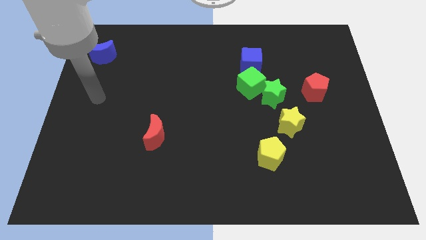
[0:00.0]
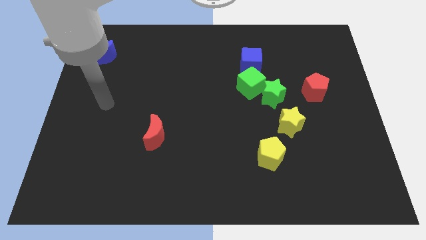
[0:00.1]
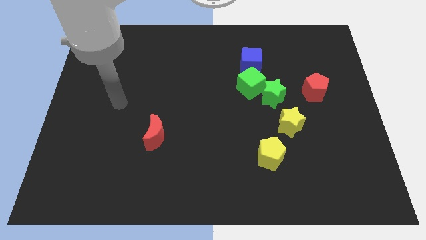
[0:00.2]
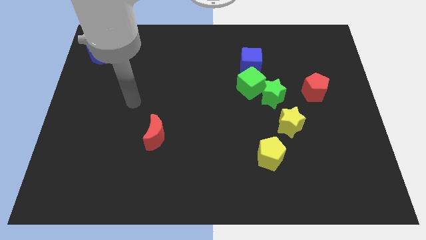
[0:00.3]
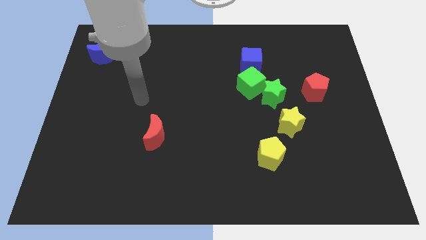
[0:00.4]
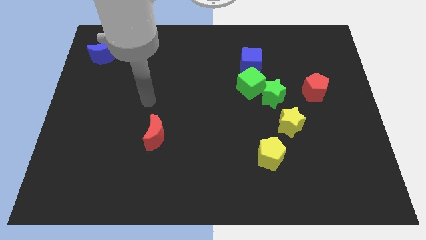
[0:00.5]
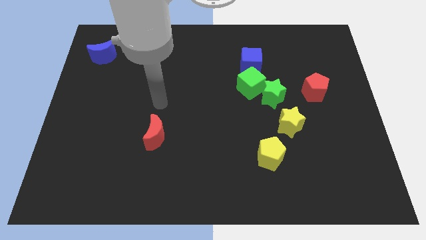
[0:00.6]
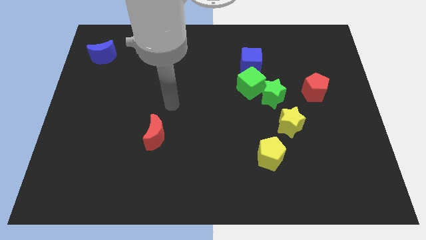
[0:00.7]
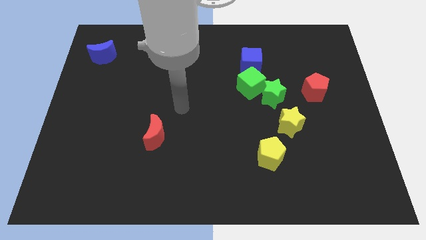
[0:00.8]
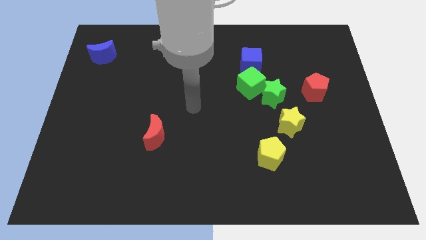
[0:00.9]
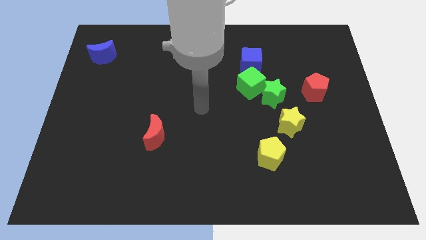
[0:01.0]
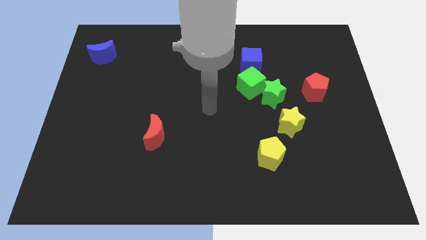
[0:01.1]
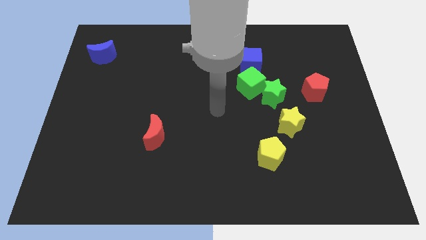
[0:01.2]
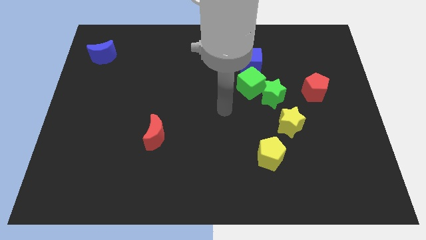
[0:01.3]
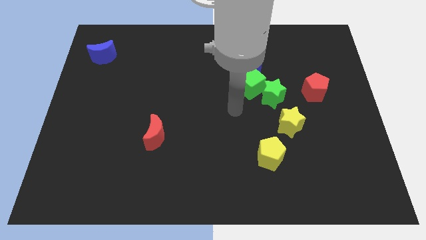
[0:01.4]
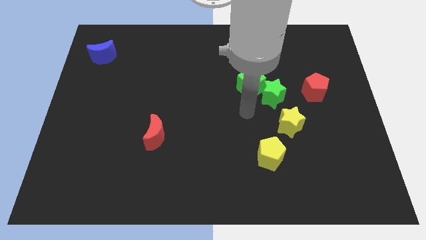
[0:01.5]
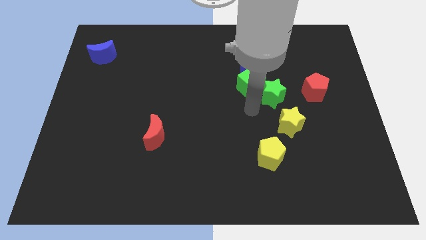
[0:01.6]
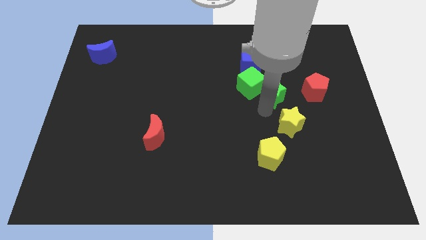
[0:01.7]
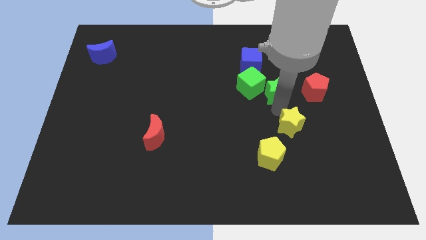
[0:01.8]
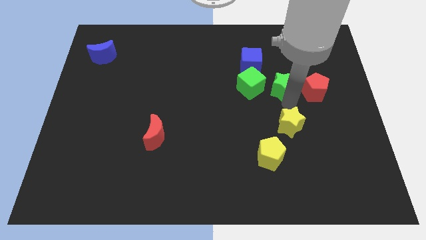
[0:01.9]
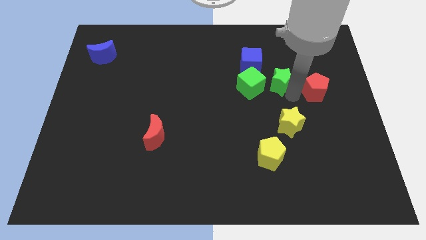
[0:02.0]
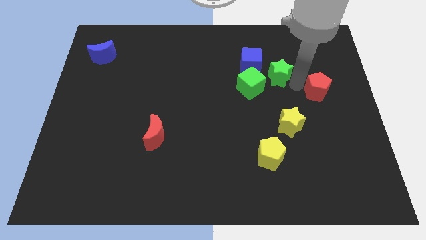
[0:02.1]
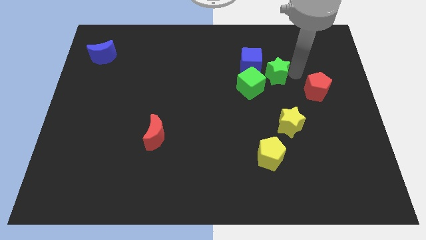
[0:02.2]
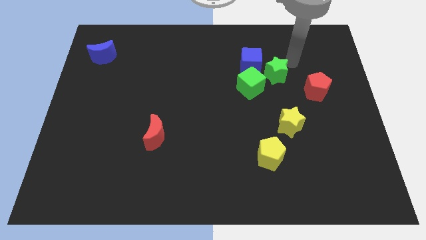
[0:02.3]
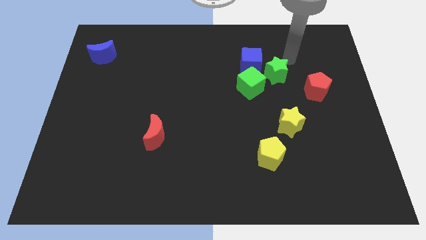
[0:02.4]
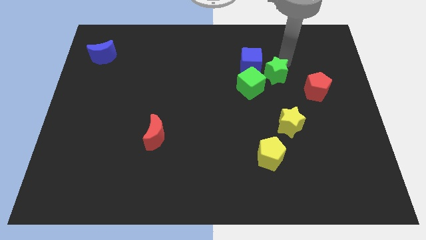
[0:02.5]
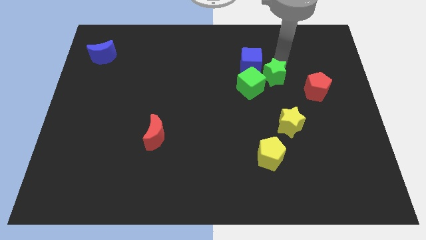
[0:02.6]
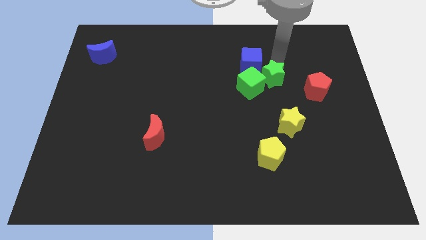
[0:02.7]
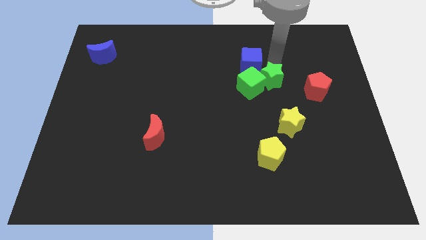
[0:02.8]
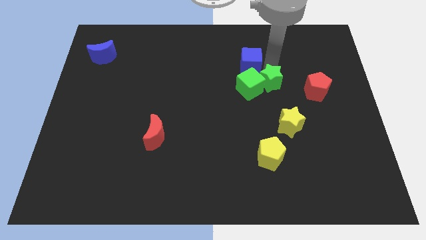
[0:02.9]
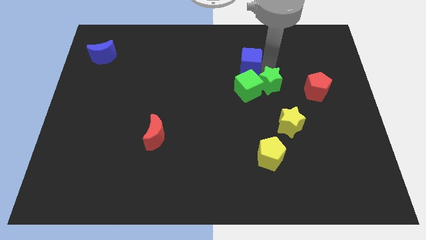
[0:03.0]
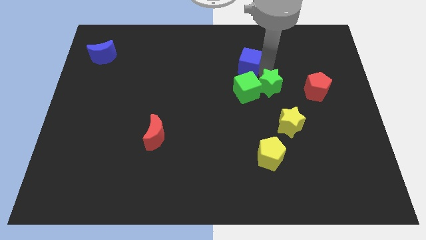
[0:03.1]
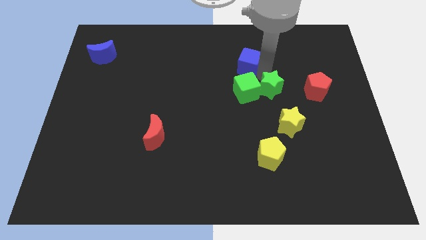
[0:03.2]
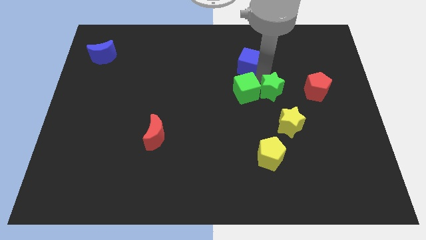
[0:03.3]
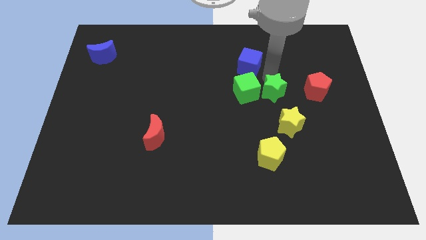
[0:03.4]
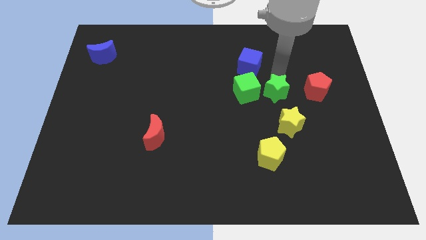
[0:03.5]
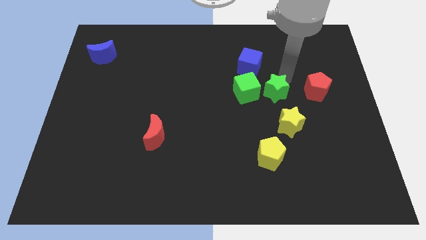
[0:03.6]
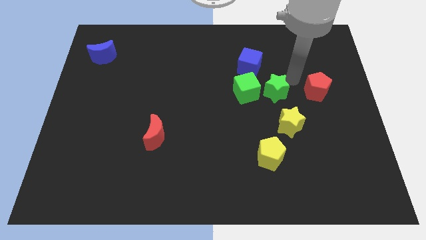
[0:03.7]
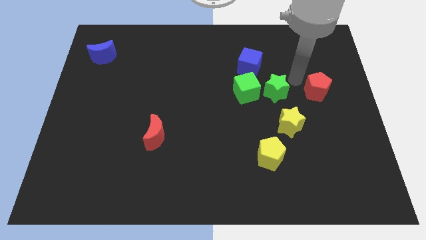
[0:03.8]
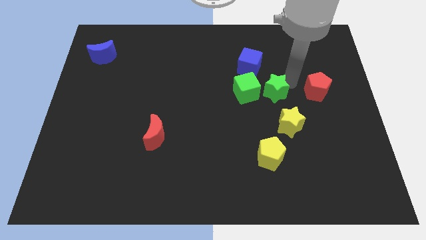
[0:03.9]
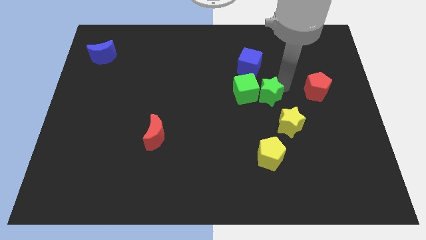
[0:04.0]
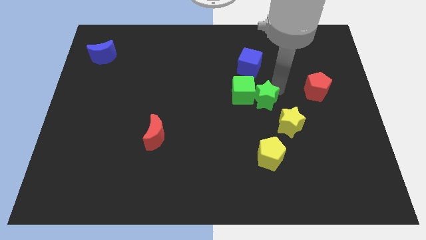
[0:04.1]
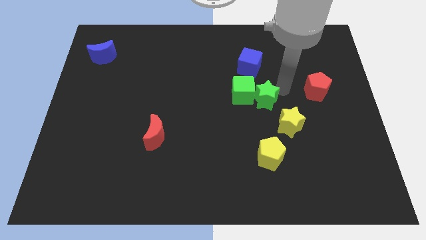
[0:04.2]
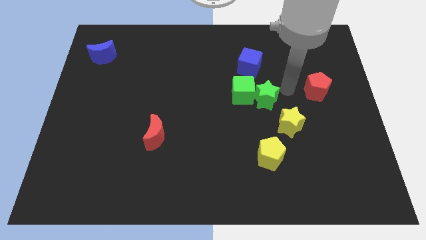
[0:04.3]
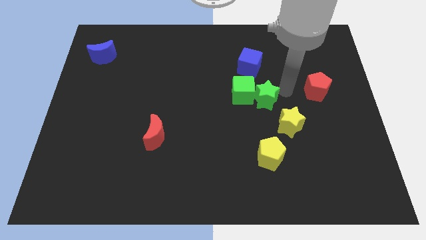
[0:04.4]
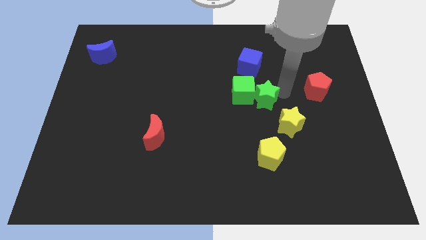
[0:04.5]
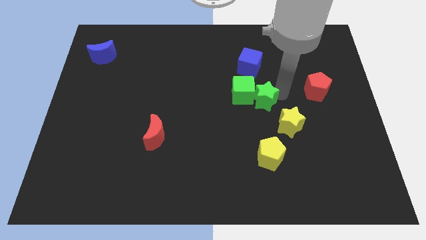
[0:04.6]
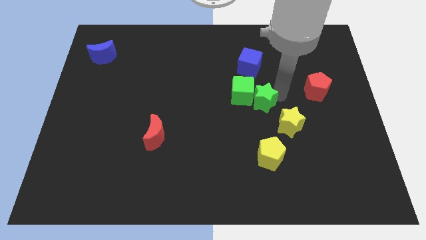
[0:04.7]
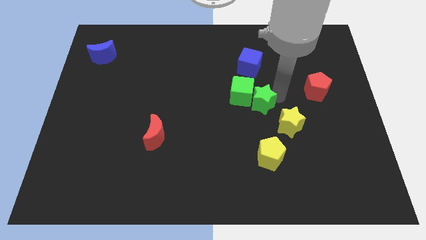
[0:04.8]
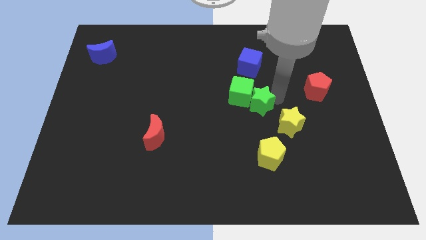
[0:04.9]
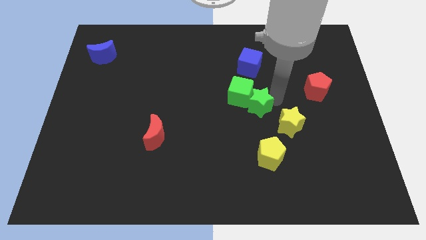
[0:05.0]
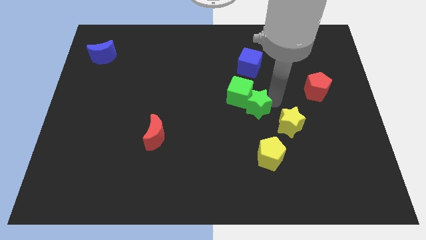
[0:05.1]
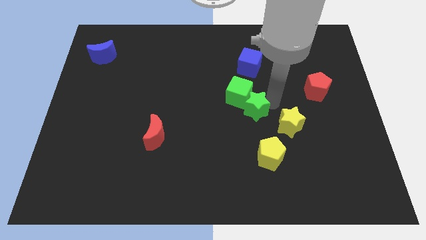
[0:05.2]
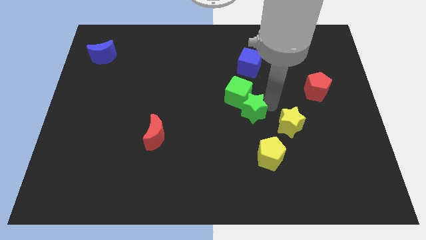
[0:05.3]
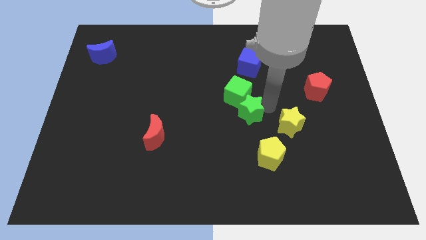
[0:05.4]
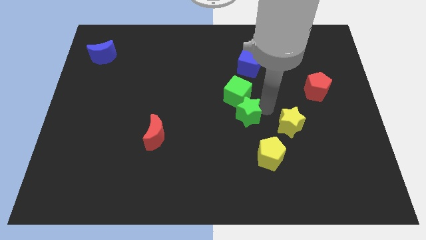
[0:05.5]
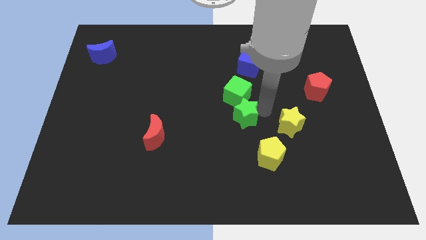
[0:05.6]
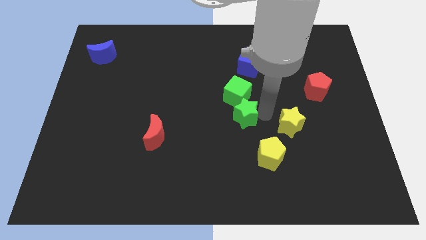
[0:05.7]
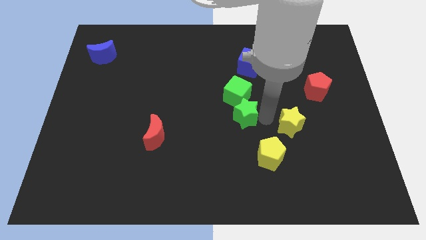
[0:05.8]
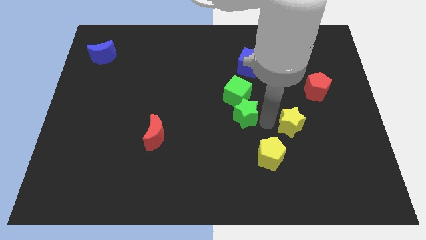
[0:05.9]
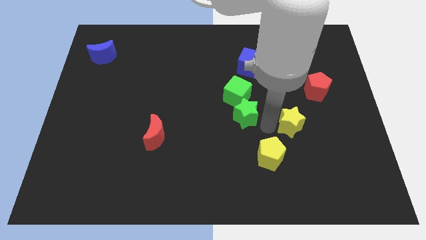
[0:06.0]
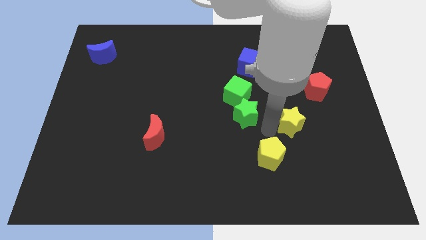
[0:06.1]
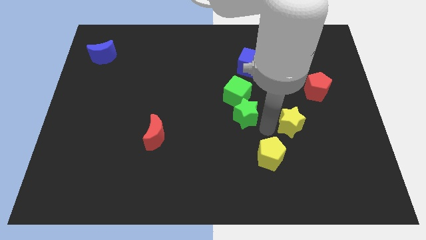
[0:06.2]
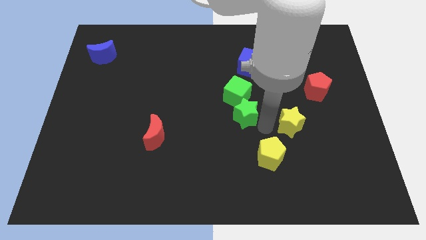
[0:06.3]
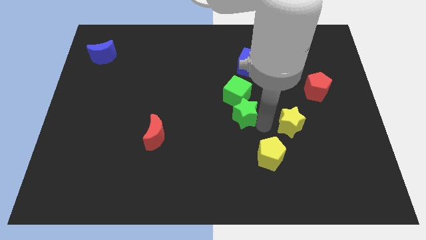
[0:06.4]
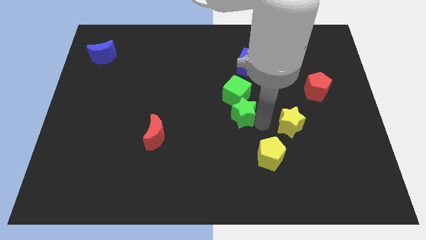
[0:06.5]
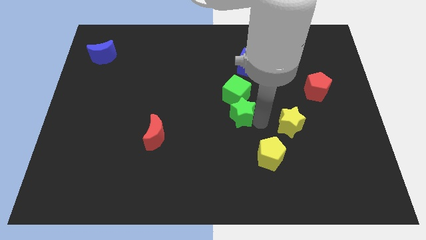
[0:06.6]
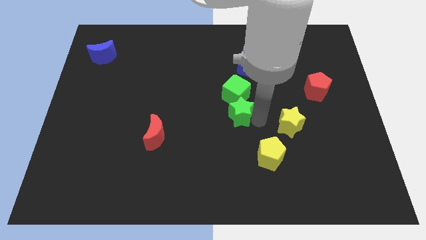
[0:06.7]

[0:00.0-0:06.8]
slide the green star left somewhat

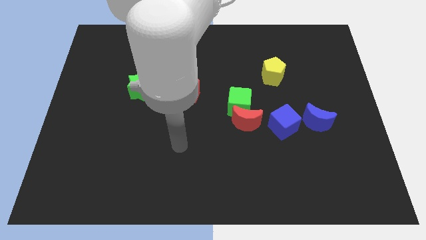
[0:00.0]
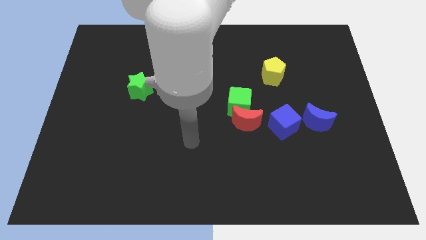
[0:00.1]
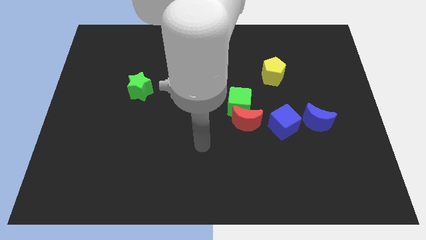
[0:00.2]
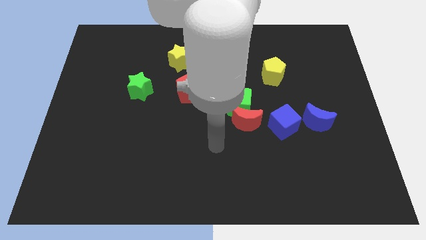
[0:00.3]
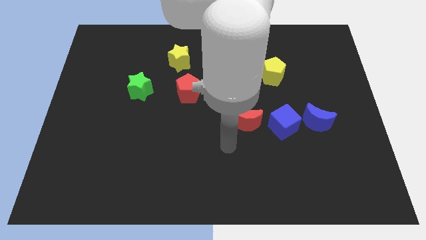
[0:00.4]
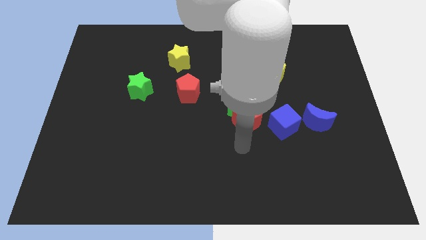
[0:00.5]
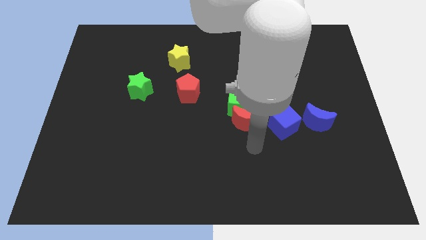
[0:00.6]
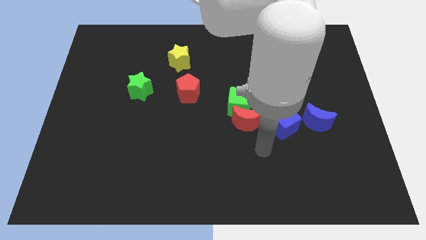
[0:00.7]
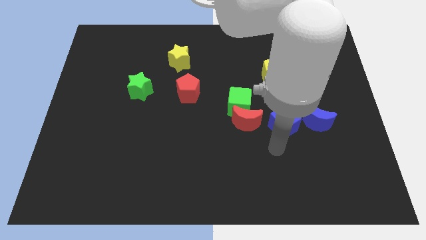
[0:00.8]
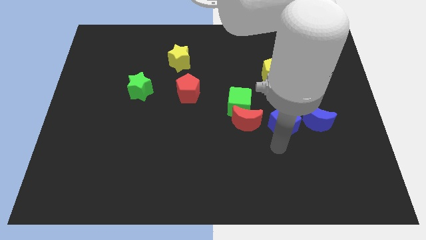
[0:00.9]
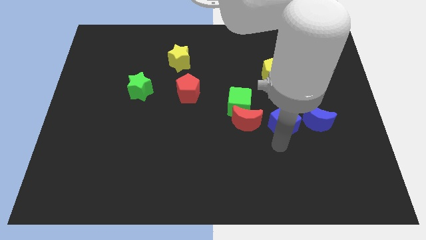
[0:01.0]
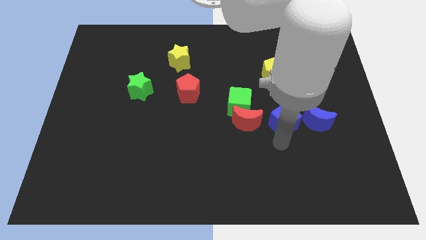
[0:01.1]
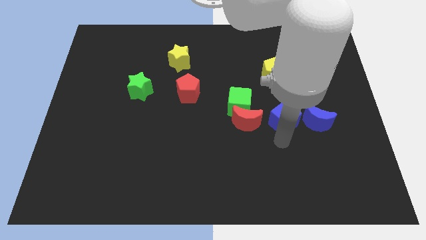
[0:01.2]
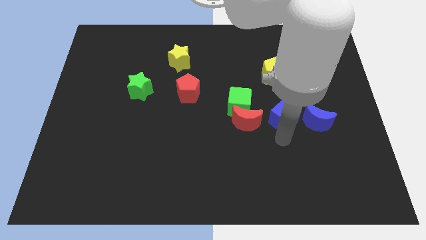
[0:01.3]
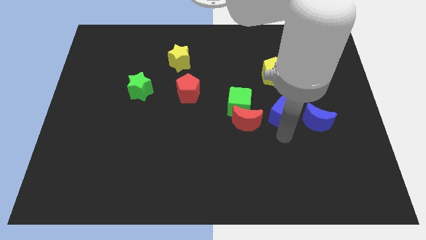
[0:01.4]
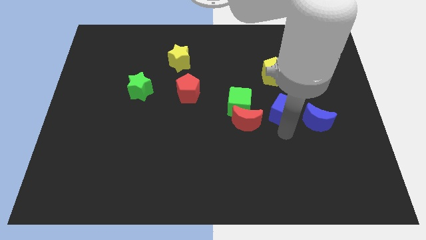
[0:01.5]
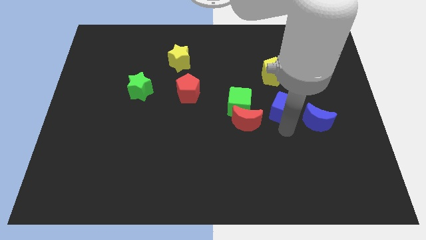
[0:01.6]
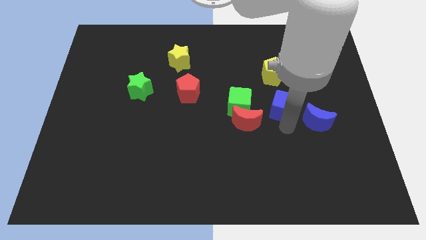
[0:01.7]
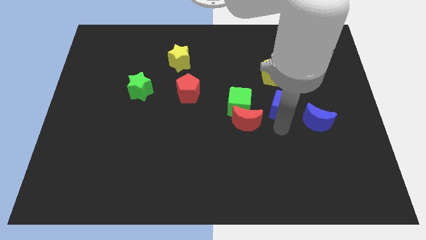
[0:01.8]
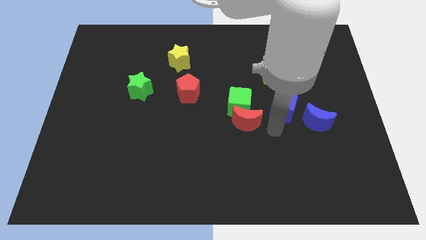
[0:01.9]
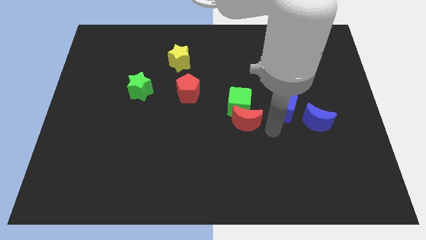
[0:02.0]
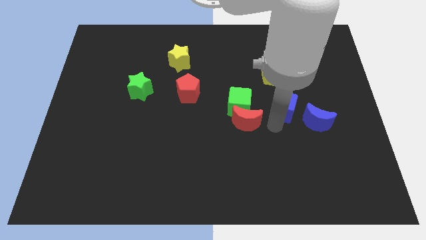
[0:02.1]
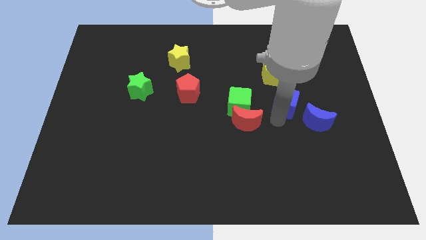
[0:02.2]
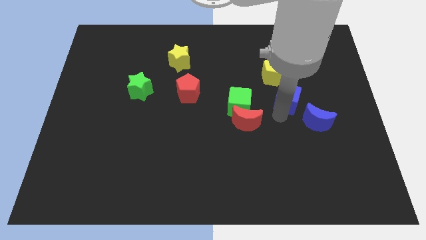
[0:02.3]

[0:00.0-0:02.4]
slide the blue cube somewhat upwards
